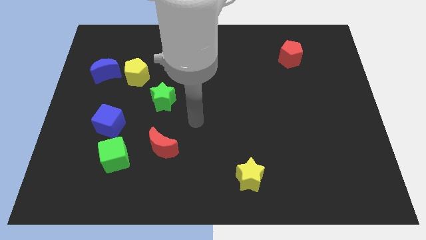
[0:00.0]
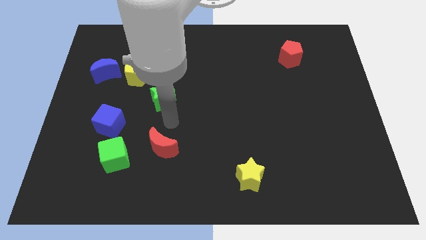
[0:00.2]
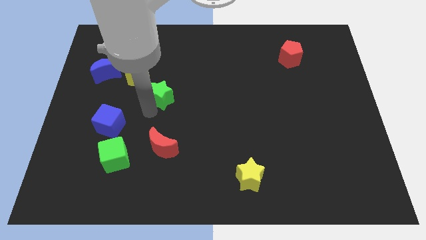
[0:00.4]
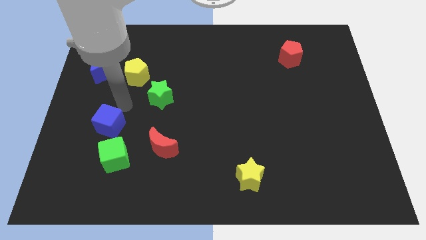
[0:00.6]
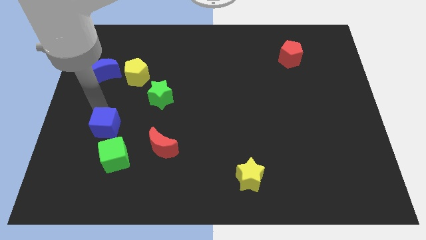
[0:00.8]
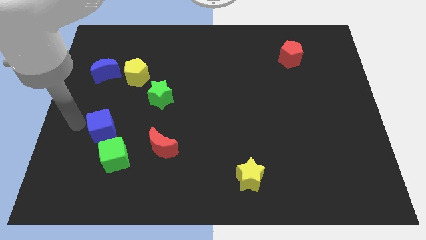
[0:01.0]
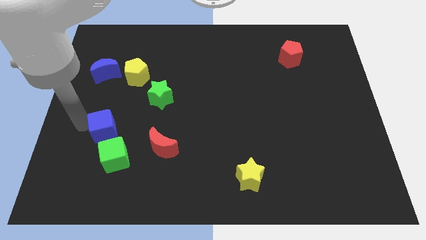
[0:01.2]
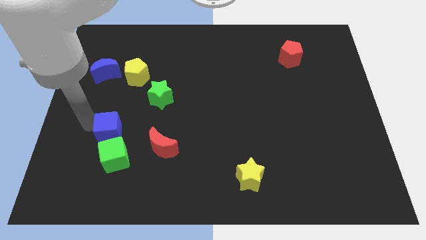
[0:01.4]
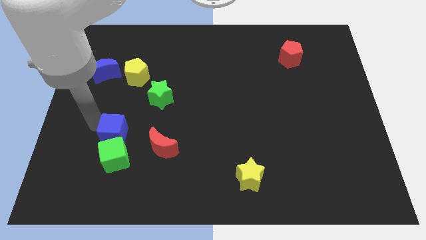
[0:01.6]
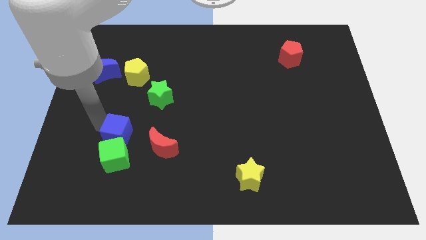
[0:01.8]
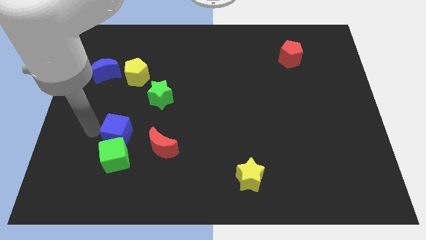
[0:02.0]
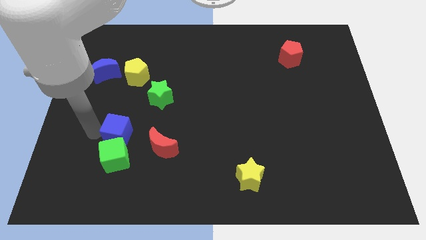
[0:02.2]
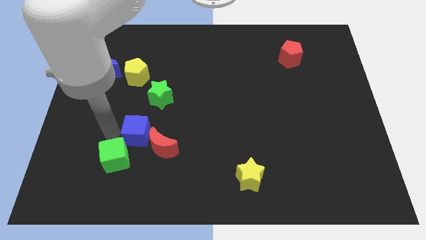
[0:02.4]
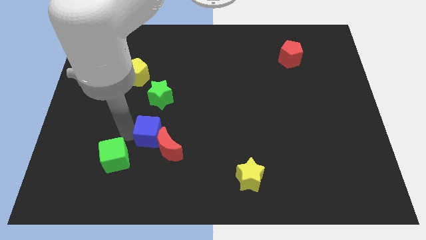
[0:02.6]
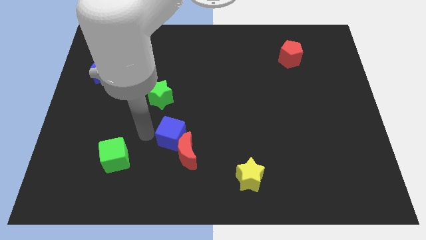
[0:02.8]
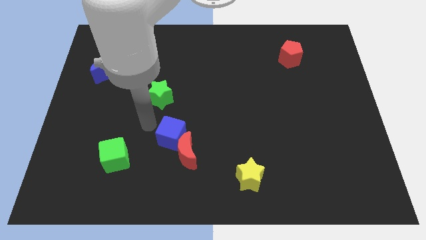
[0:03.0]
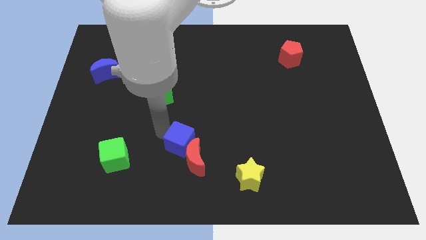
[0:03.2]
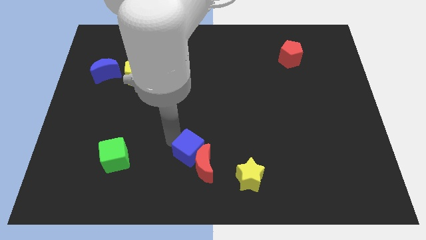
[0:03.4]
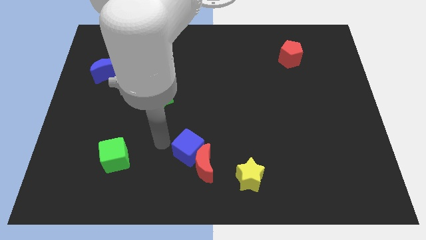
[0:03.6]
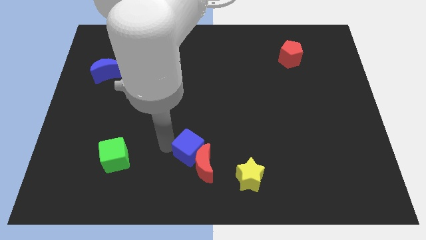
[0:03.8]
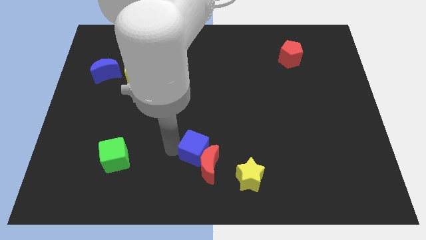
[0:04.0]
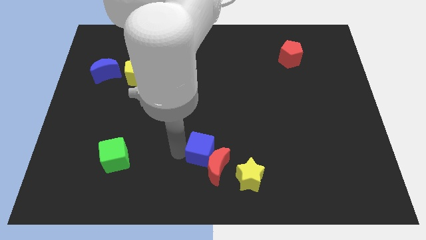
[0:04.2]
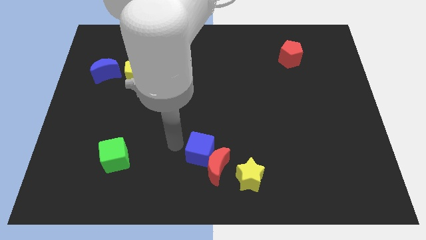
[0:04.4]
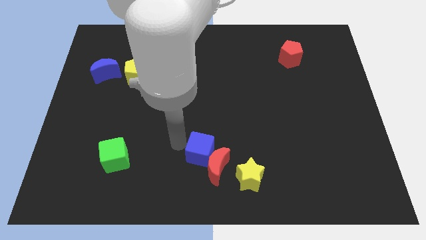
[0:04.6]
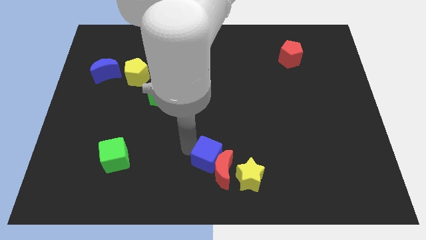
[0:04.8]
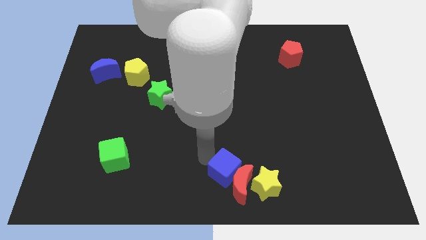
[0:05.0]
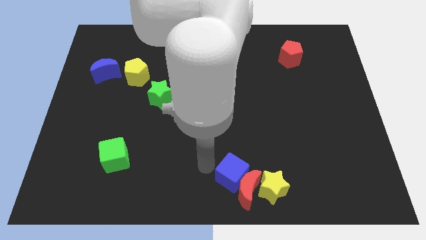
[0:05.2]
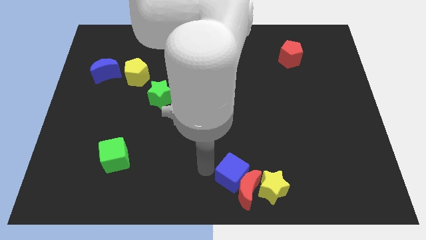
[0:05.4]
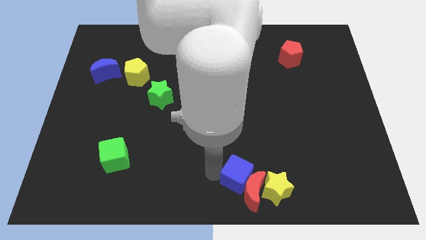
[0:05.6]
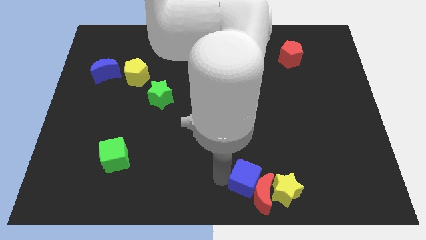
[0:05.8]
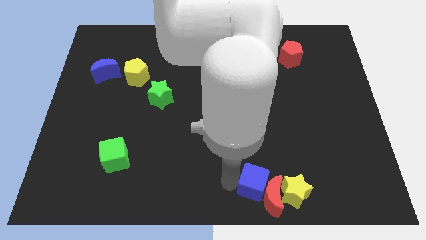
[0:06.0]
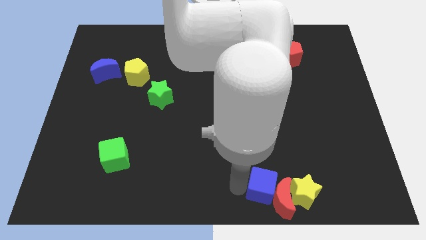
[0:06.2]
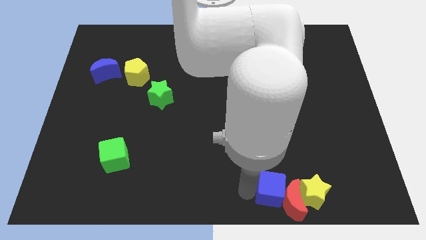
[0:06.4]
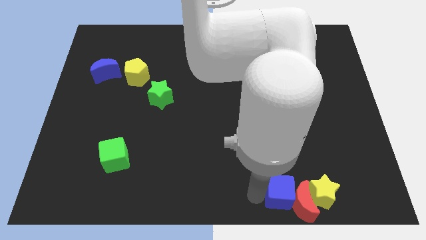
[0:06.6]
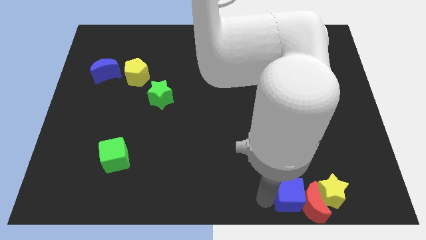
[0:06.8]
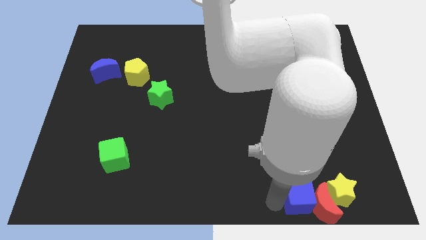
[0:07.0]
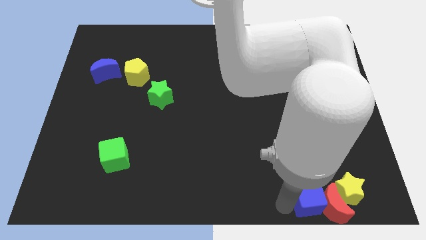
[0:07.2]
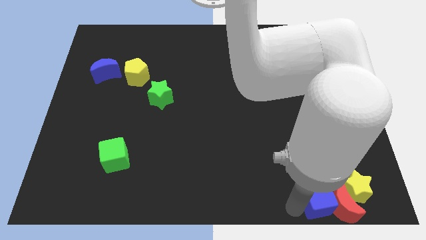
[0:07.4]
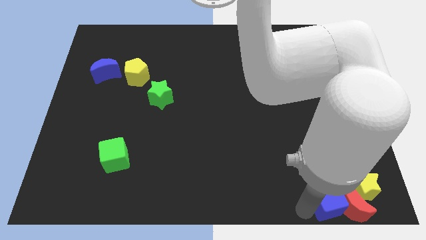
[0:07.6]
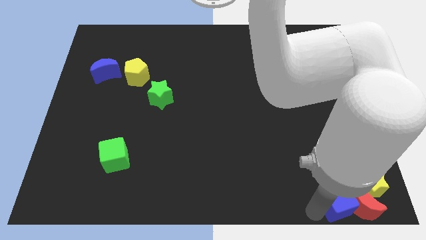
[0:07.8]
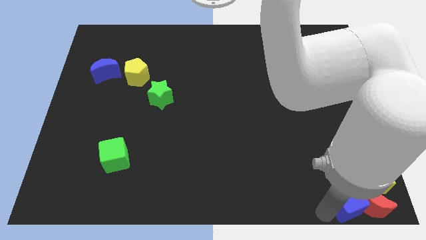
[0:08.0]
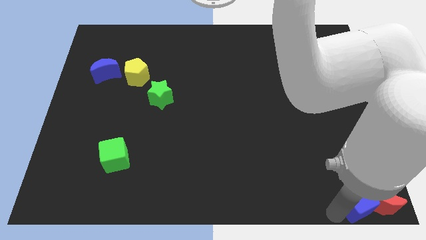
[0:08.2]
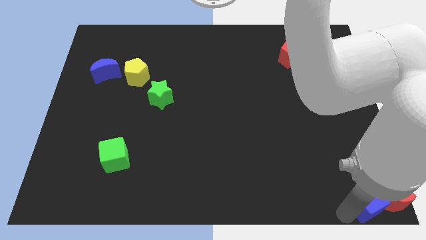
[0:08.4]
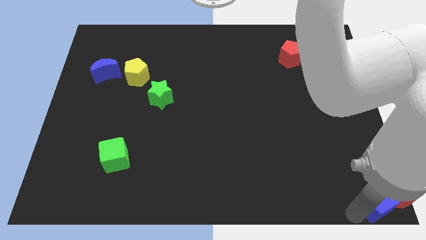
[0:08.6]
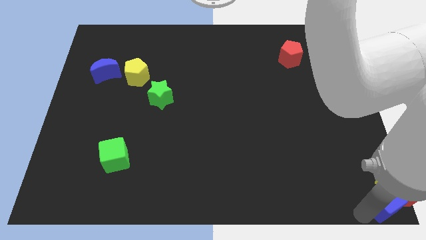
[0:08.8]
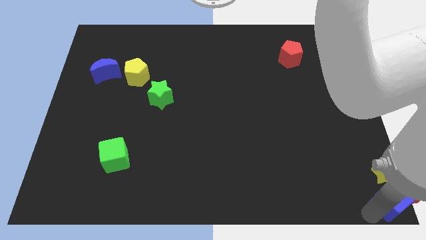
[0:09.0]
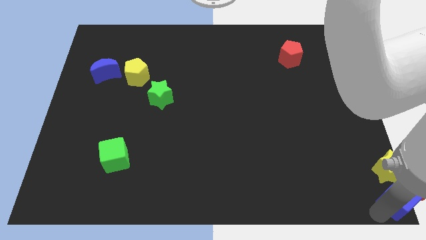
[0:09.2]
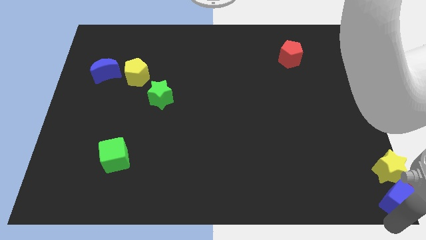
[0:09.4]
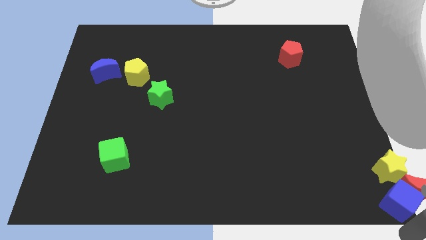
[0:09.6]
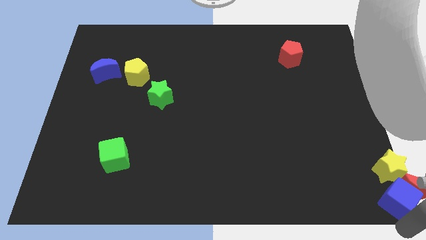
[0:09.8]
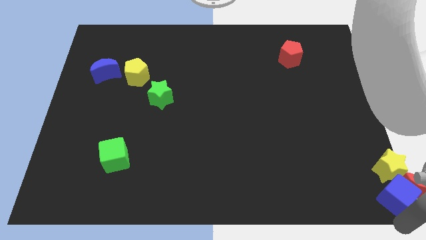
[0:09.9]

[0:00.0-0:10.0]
push the blue cube next to the yellow star

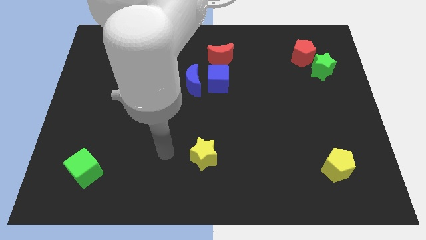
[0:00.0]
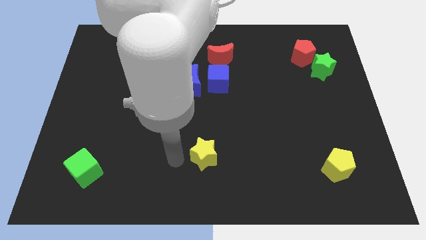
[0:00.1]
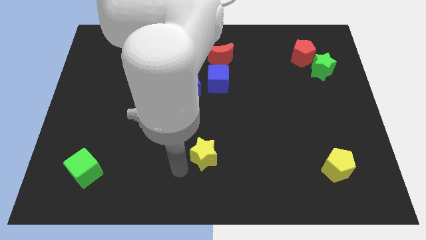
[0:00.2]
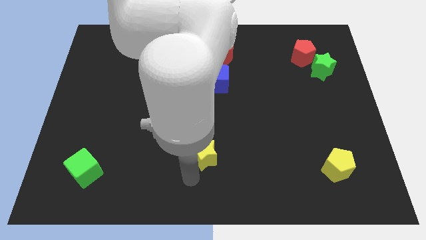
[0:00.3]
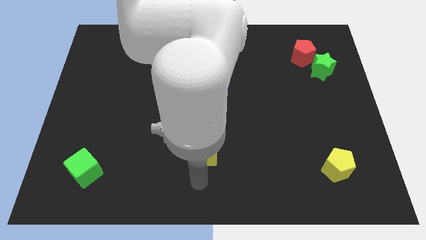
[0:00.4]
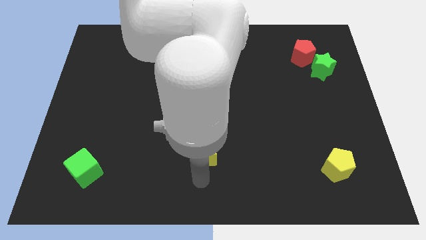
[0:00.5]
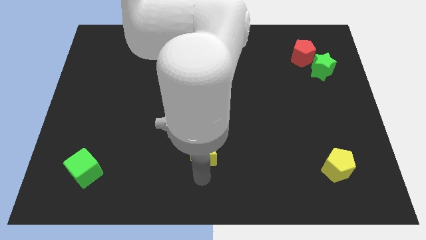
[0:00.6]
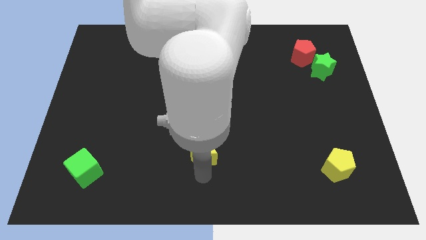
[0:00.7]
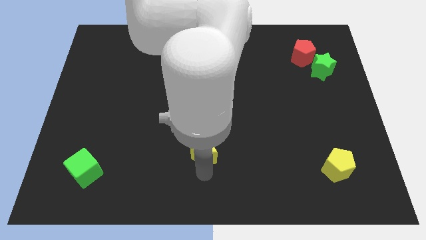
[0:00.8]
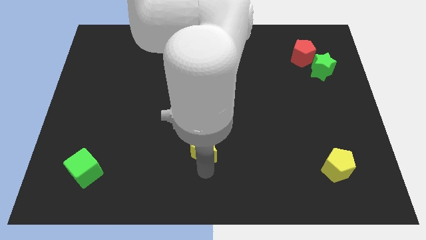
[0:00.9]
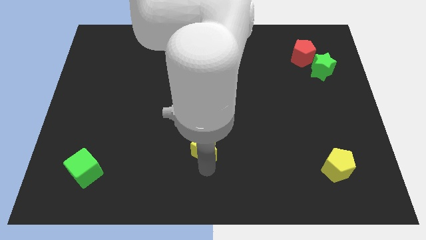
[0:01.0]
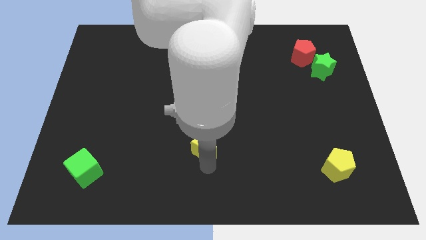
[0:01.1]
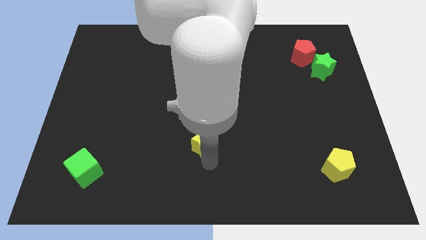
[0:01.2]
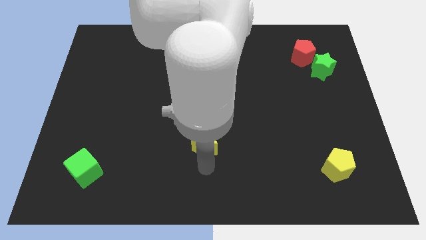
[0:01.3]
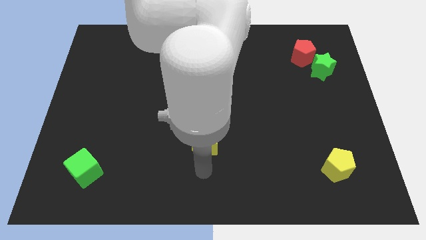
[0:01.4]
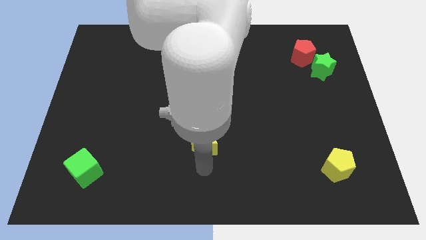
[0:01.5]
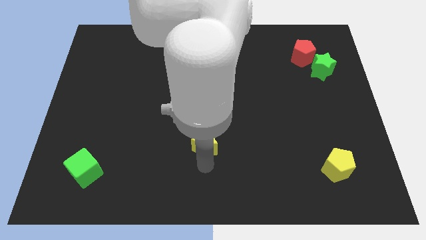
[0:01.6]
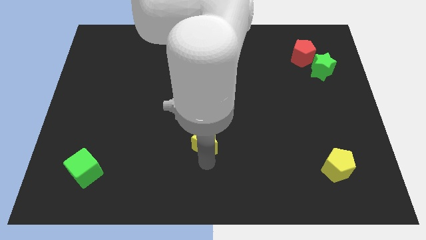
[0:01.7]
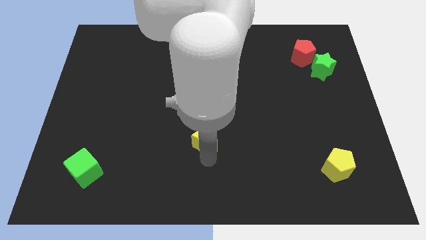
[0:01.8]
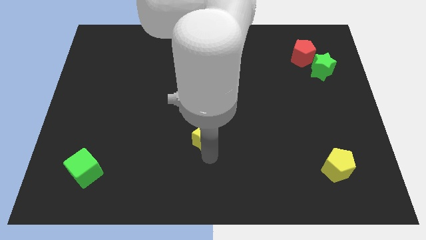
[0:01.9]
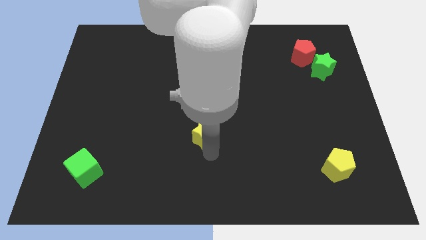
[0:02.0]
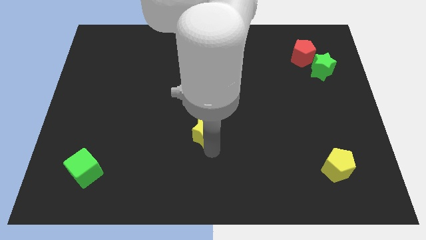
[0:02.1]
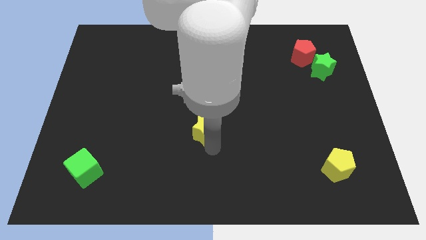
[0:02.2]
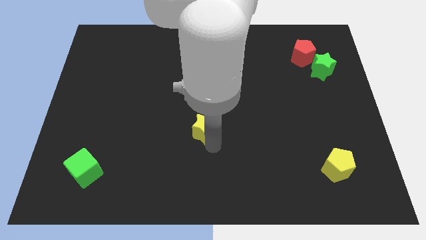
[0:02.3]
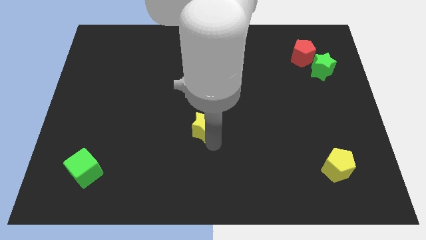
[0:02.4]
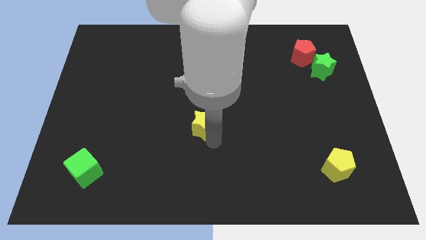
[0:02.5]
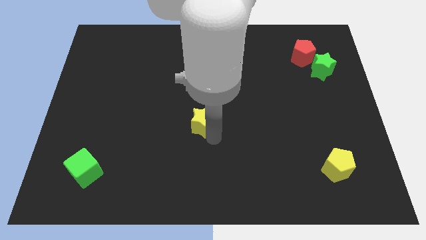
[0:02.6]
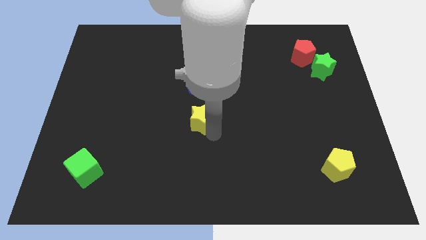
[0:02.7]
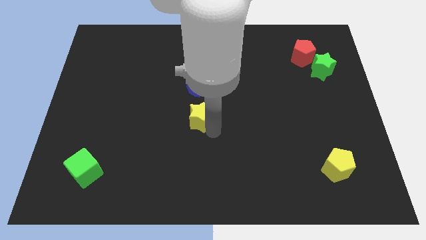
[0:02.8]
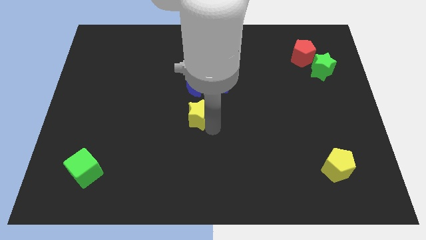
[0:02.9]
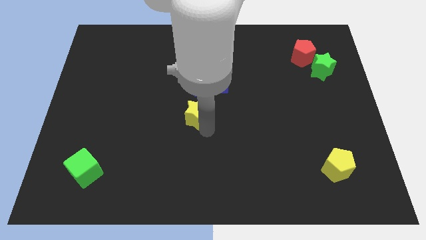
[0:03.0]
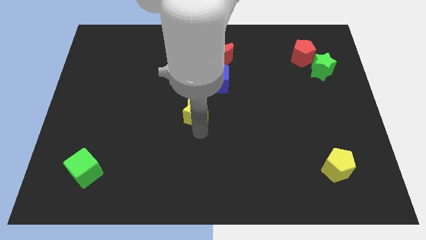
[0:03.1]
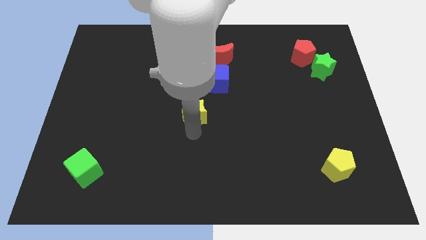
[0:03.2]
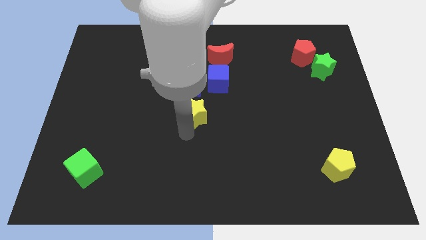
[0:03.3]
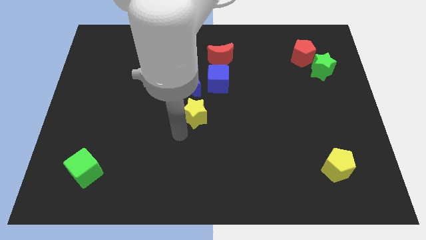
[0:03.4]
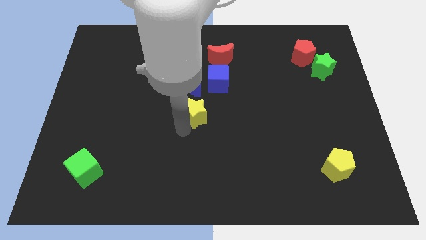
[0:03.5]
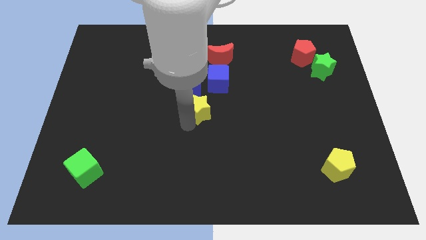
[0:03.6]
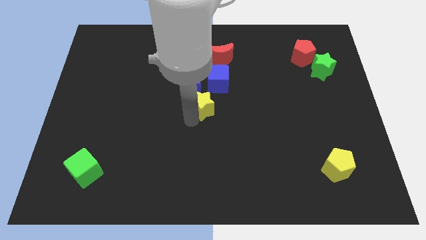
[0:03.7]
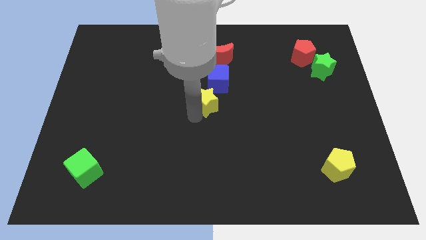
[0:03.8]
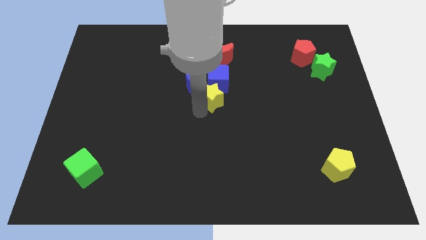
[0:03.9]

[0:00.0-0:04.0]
move the yellow star to the blue cube
